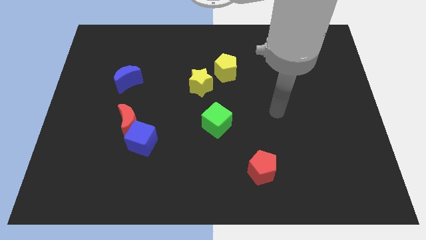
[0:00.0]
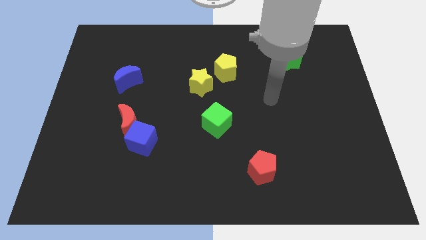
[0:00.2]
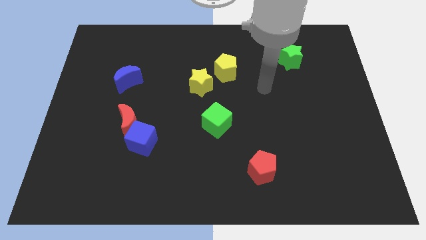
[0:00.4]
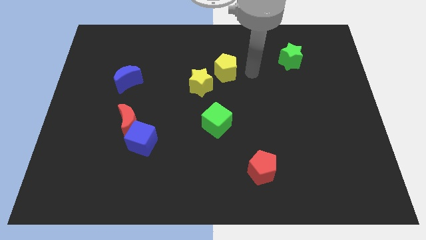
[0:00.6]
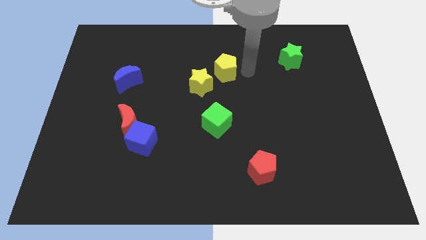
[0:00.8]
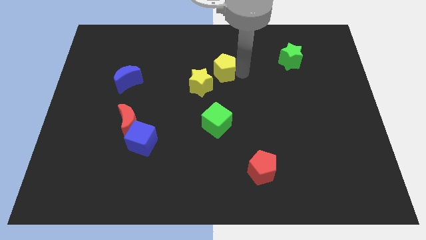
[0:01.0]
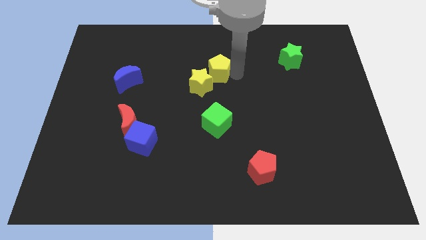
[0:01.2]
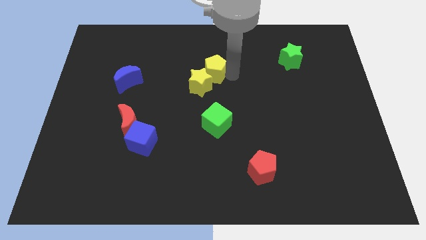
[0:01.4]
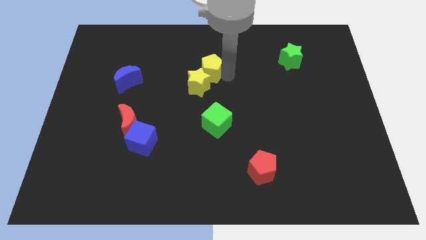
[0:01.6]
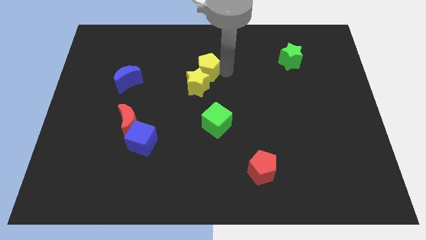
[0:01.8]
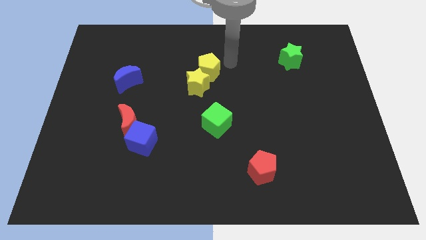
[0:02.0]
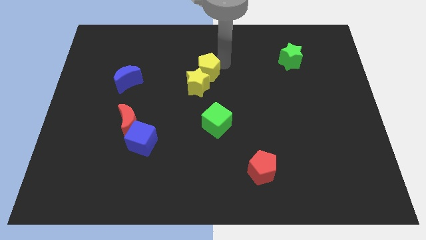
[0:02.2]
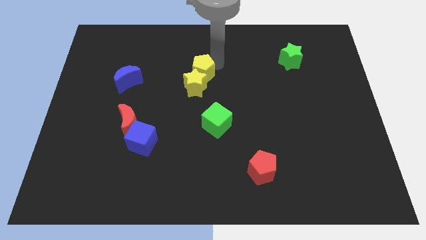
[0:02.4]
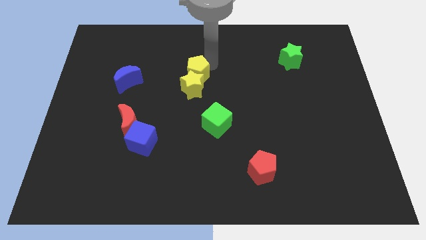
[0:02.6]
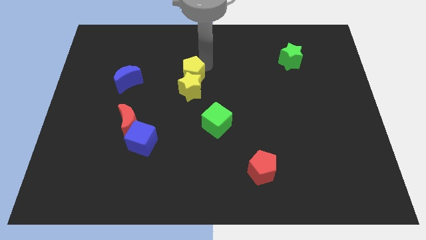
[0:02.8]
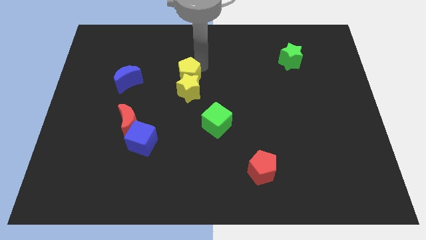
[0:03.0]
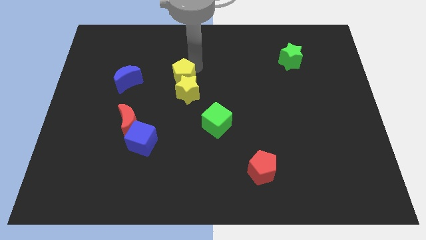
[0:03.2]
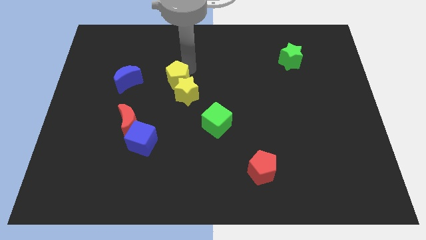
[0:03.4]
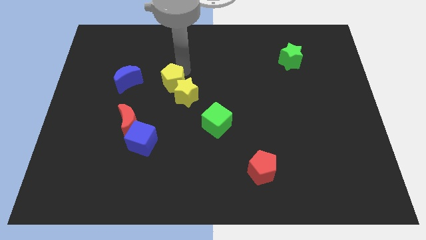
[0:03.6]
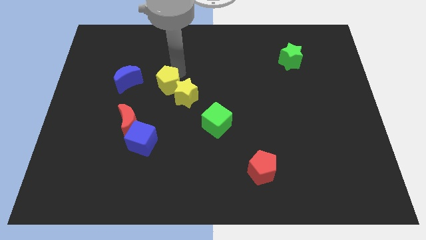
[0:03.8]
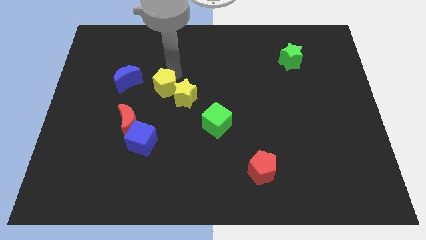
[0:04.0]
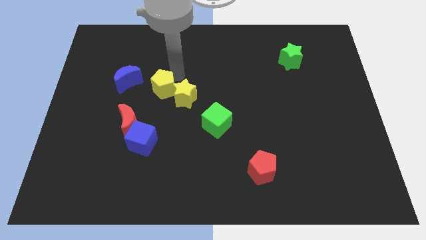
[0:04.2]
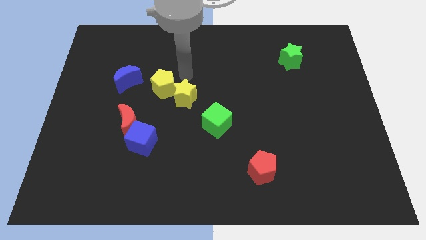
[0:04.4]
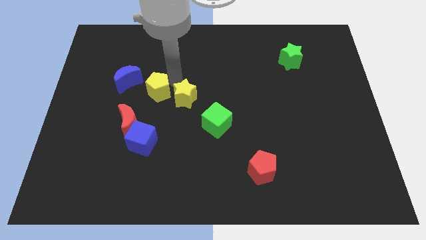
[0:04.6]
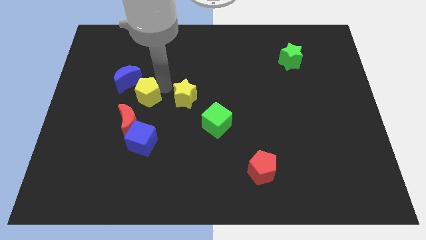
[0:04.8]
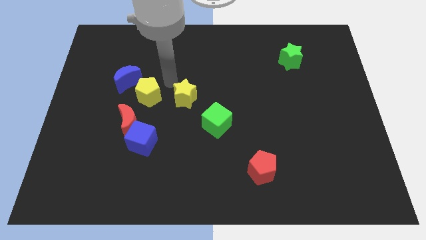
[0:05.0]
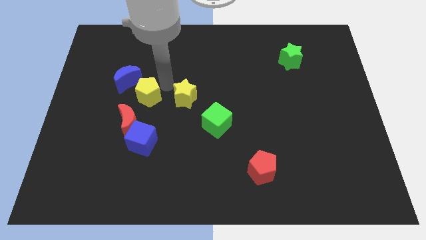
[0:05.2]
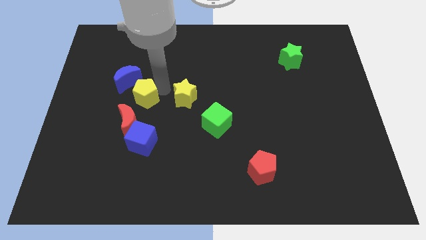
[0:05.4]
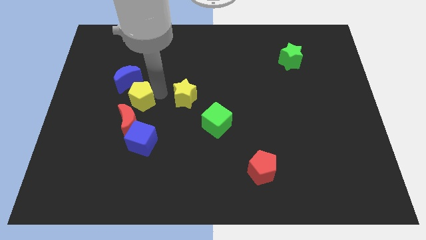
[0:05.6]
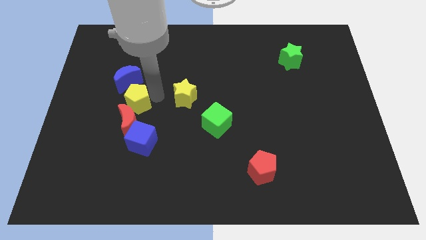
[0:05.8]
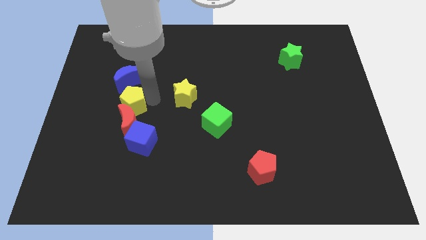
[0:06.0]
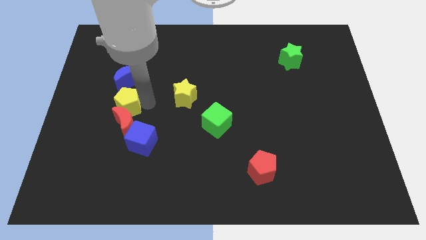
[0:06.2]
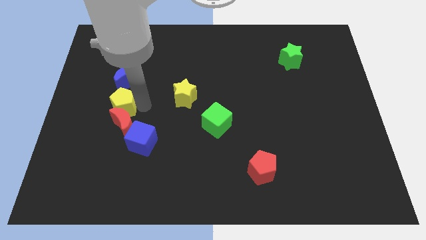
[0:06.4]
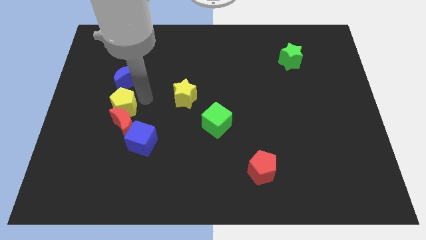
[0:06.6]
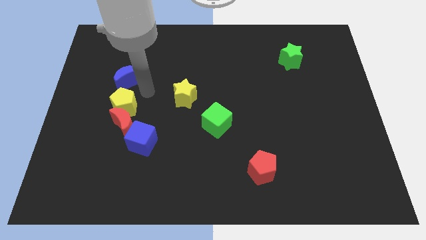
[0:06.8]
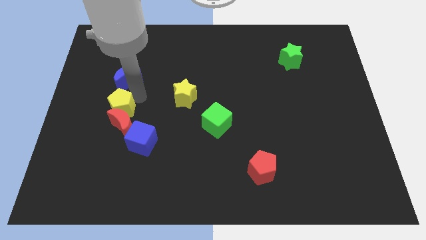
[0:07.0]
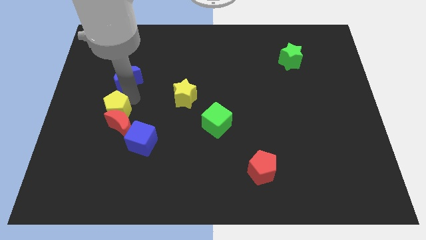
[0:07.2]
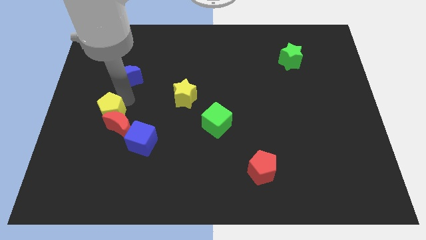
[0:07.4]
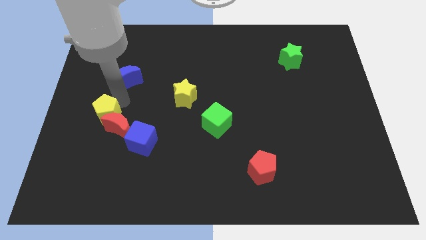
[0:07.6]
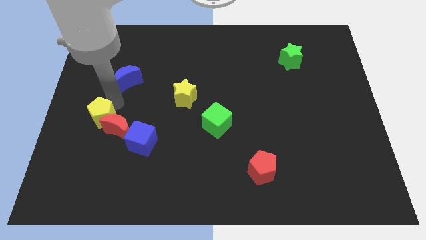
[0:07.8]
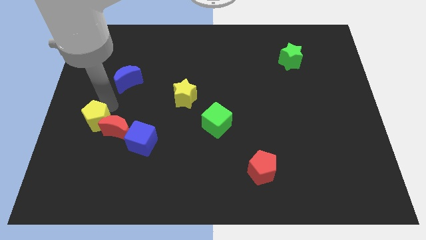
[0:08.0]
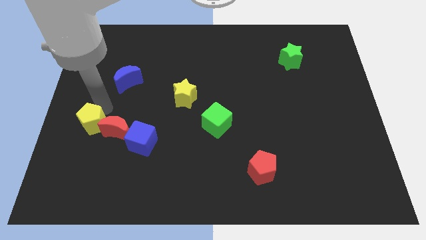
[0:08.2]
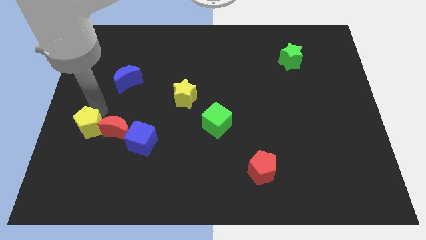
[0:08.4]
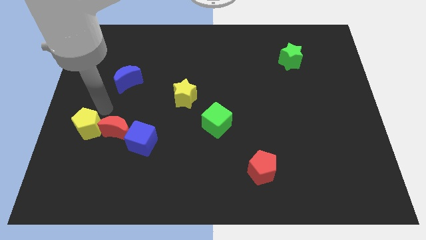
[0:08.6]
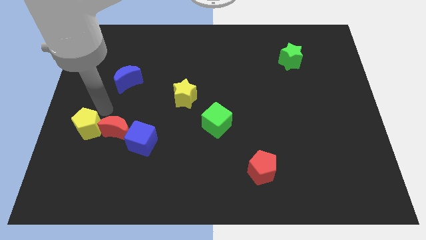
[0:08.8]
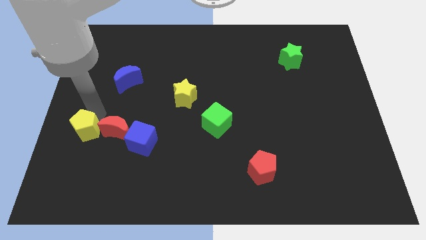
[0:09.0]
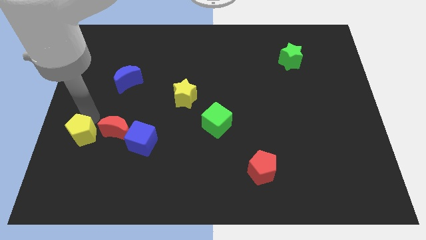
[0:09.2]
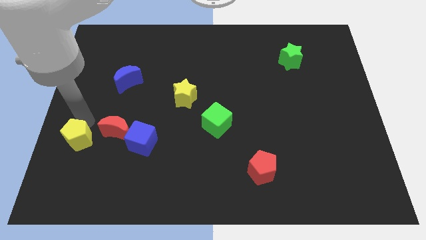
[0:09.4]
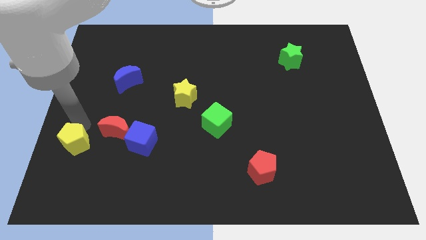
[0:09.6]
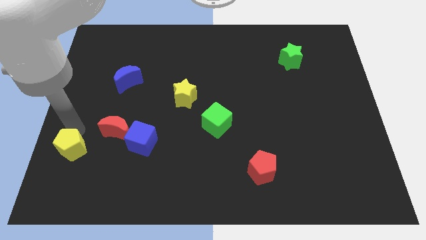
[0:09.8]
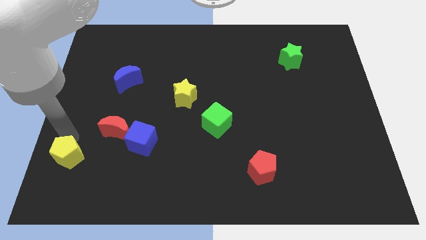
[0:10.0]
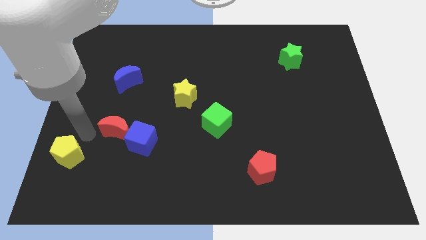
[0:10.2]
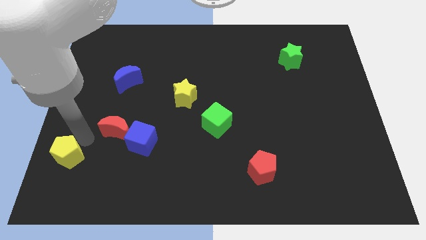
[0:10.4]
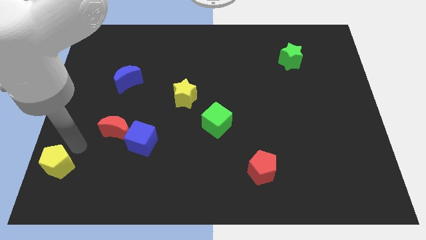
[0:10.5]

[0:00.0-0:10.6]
put the yellow pentagon to the bottom left corner

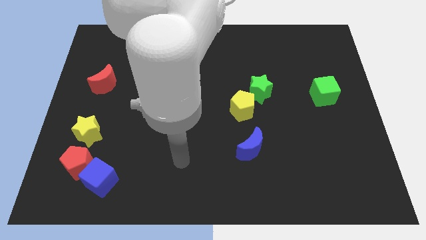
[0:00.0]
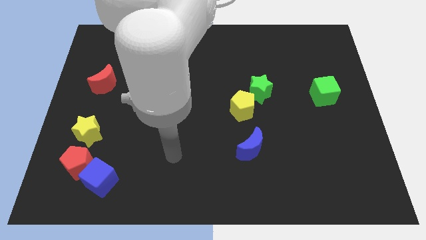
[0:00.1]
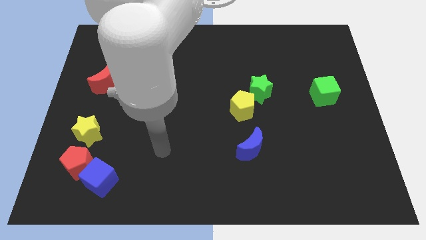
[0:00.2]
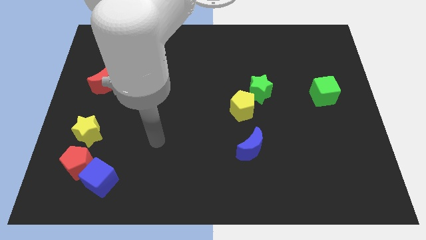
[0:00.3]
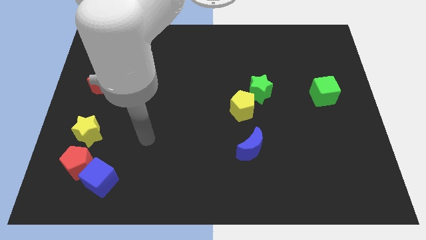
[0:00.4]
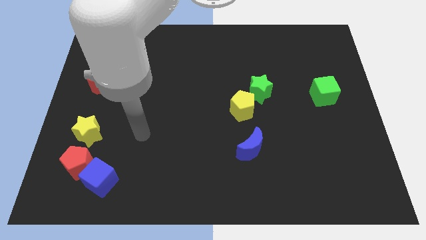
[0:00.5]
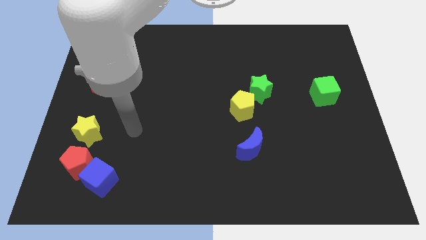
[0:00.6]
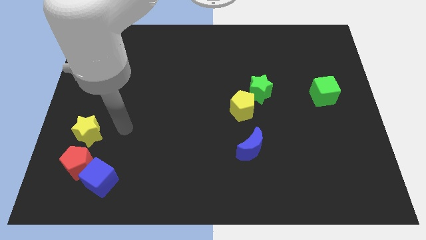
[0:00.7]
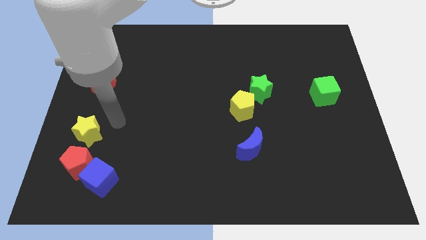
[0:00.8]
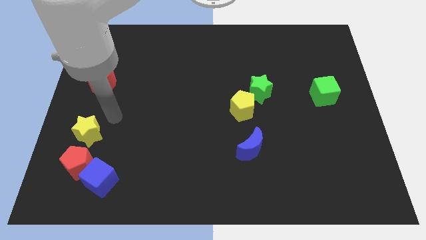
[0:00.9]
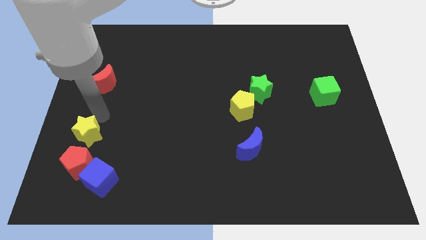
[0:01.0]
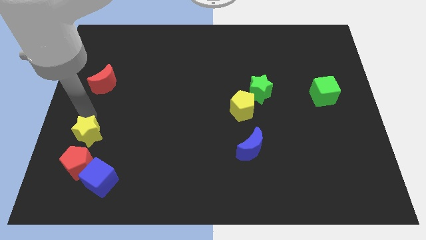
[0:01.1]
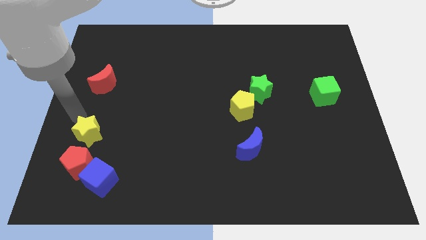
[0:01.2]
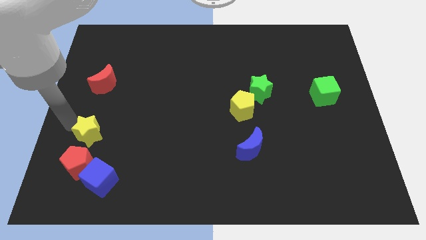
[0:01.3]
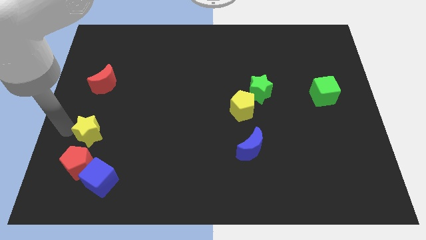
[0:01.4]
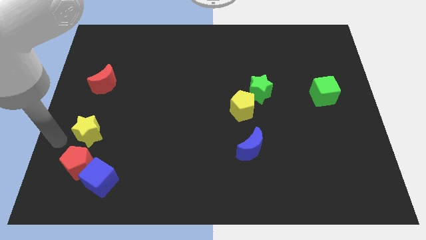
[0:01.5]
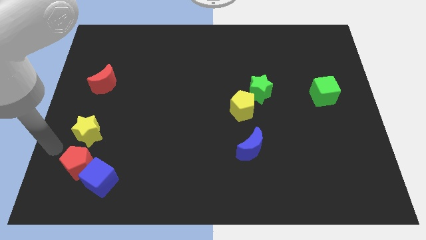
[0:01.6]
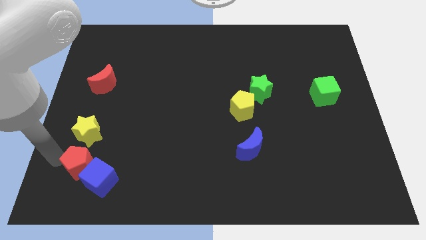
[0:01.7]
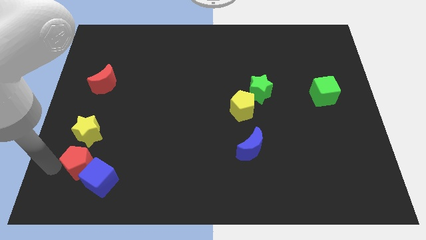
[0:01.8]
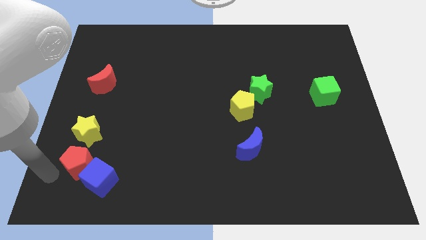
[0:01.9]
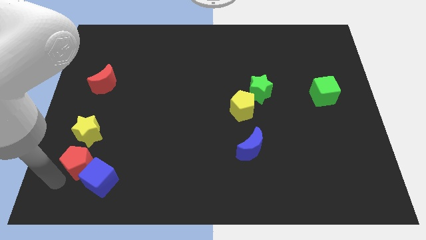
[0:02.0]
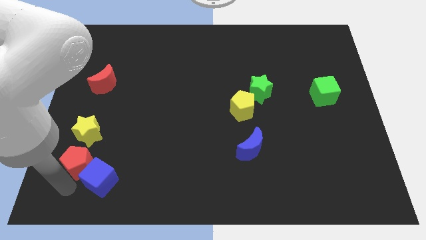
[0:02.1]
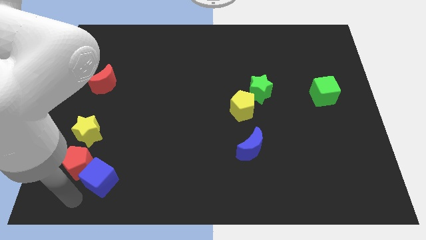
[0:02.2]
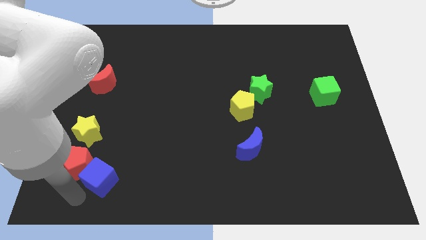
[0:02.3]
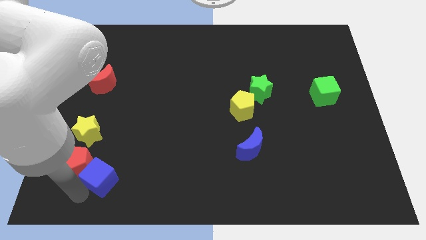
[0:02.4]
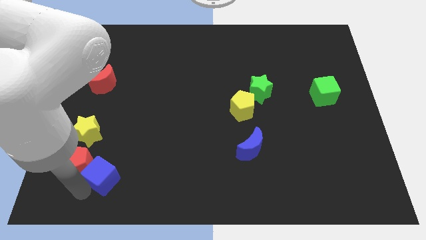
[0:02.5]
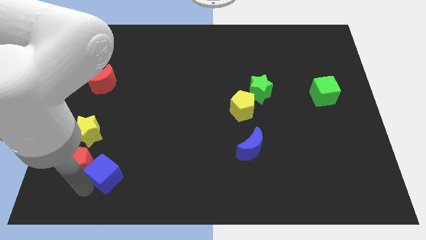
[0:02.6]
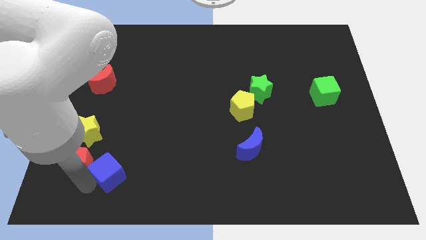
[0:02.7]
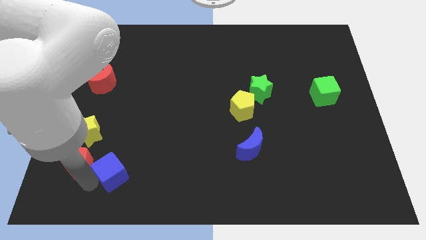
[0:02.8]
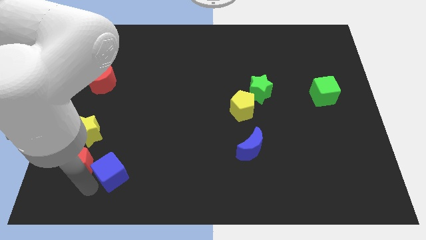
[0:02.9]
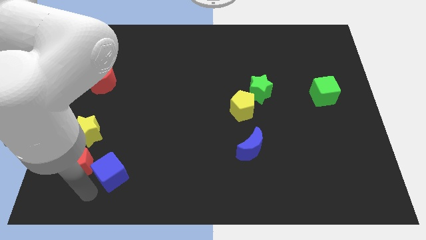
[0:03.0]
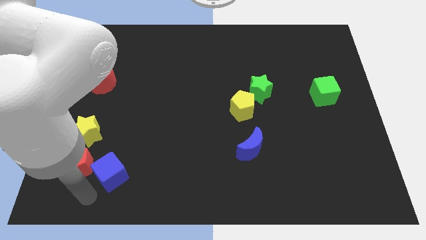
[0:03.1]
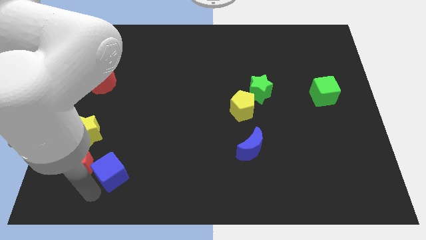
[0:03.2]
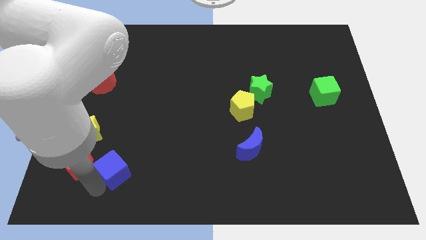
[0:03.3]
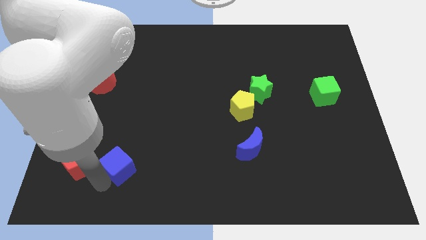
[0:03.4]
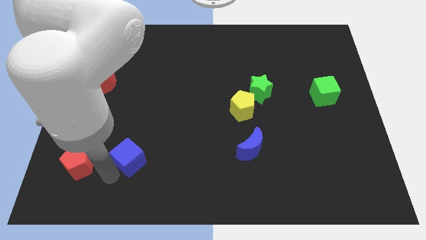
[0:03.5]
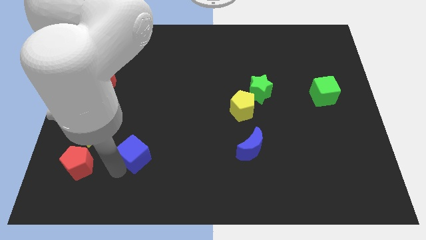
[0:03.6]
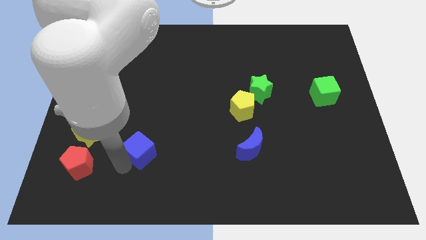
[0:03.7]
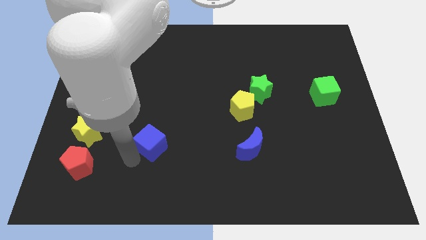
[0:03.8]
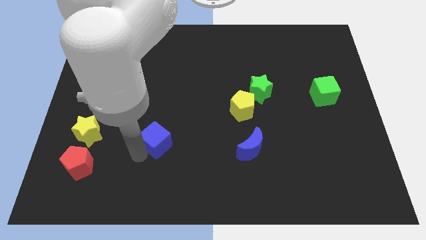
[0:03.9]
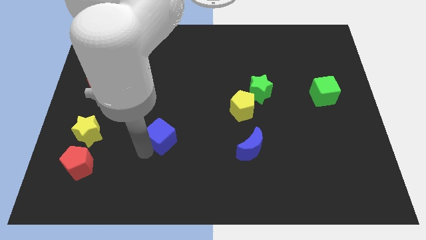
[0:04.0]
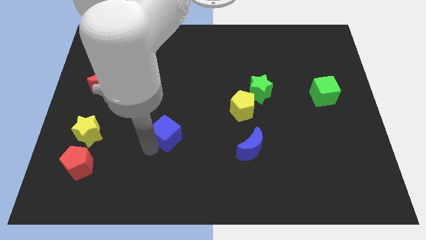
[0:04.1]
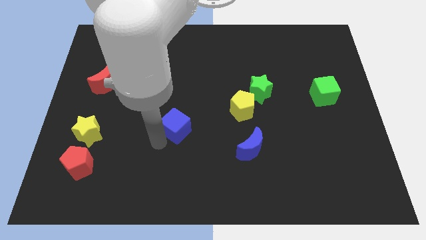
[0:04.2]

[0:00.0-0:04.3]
slide the blue cube to the center of the board
